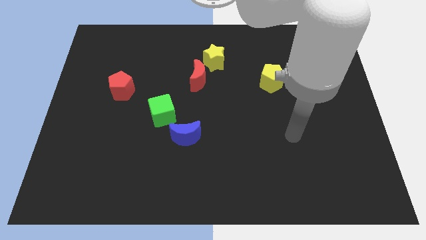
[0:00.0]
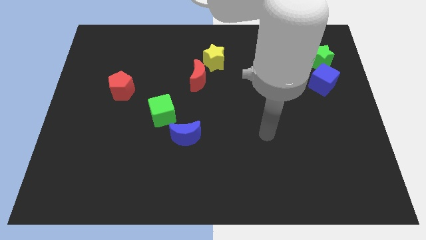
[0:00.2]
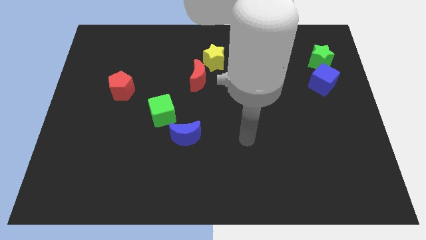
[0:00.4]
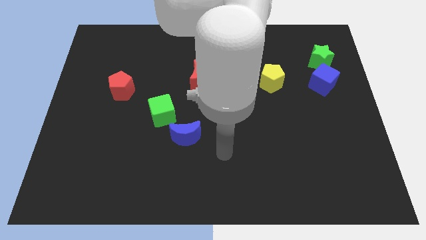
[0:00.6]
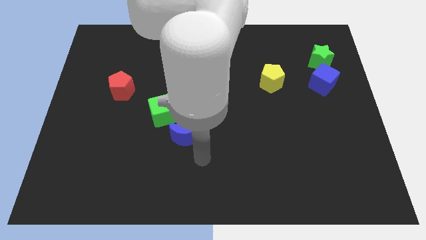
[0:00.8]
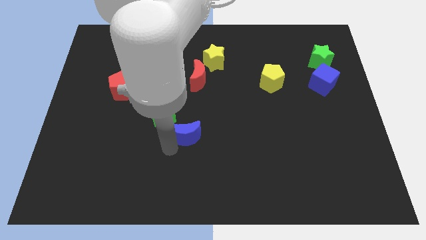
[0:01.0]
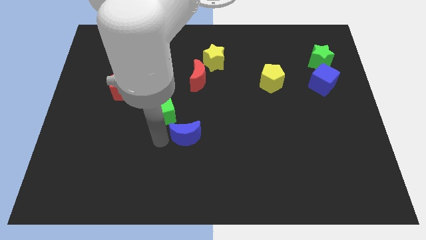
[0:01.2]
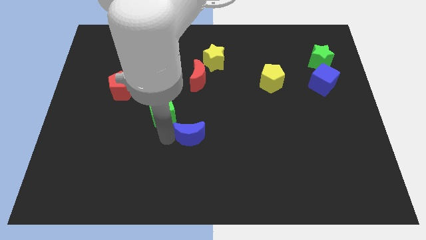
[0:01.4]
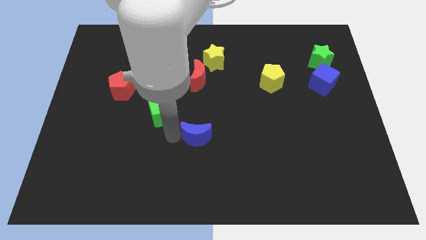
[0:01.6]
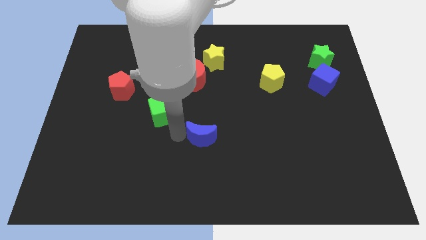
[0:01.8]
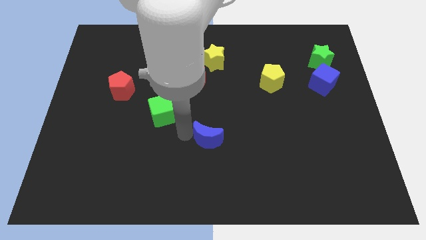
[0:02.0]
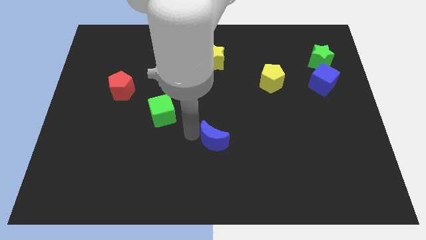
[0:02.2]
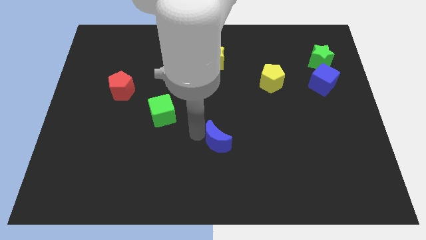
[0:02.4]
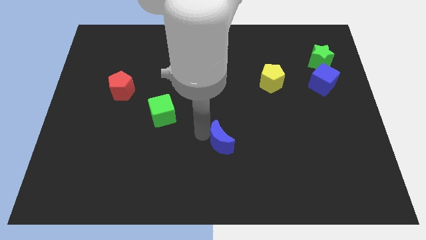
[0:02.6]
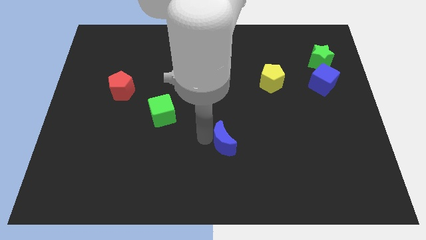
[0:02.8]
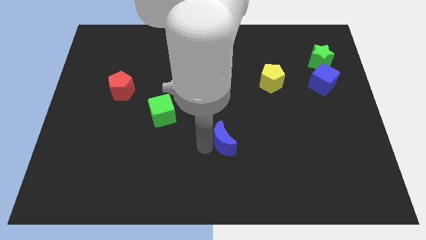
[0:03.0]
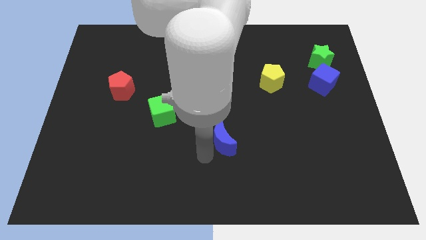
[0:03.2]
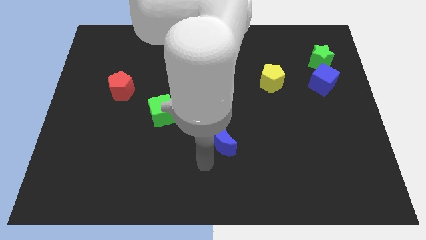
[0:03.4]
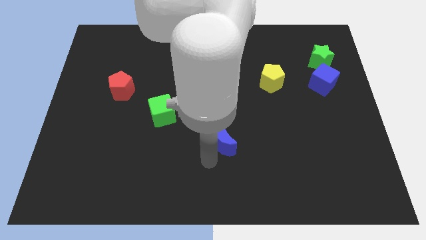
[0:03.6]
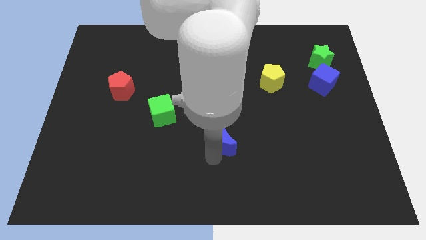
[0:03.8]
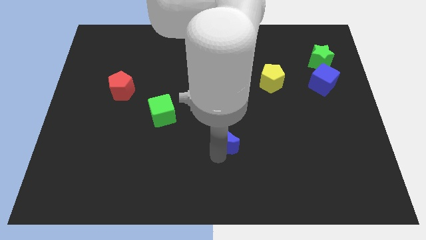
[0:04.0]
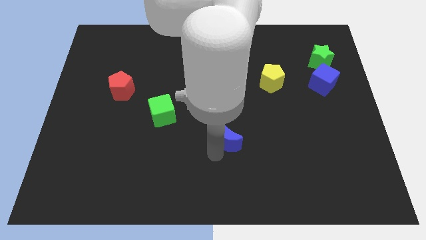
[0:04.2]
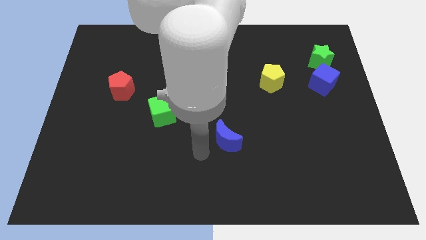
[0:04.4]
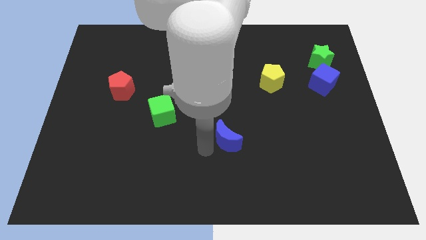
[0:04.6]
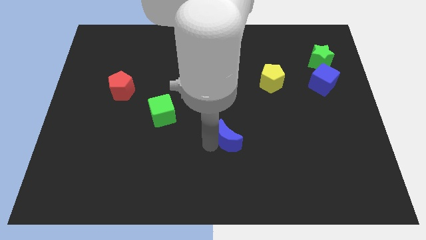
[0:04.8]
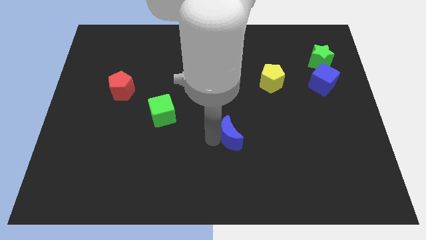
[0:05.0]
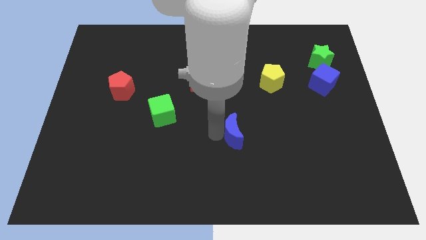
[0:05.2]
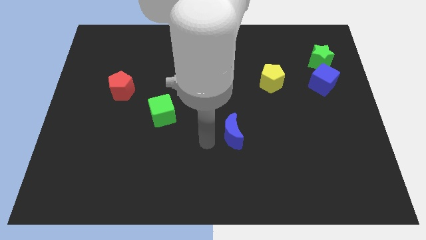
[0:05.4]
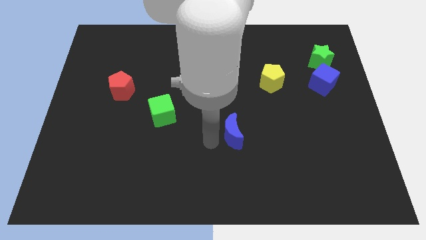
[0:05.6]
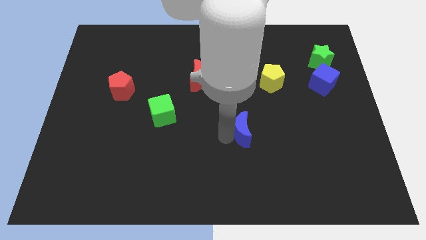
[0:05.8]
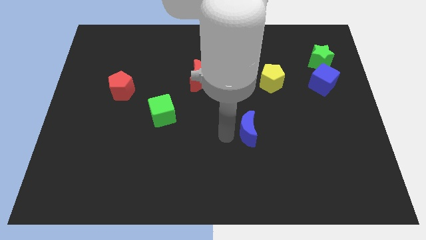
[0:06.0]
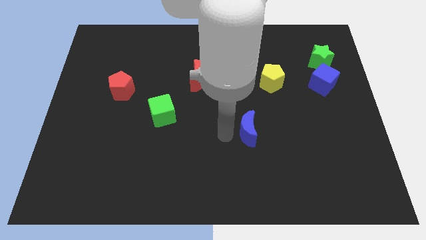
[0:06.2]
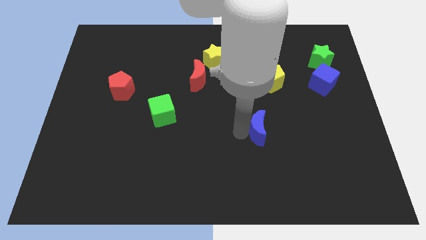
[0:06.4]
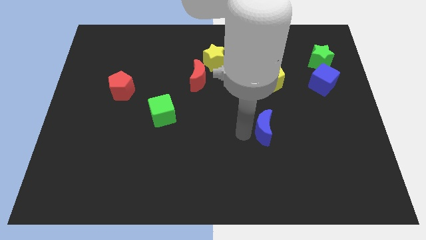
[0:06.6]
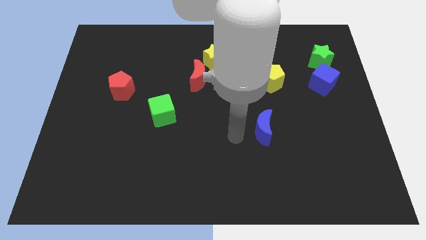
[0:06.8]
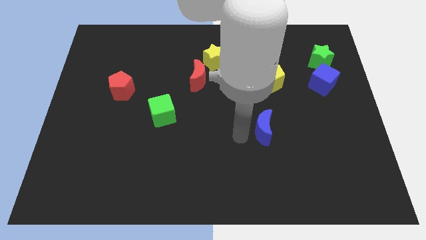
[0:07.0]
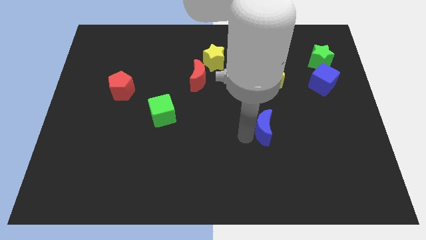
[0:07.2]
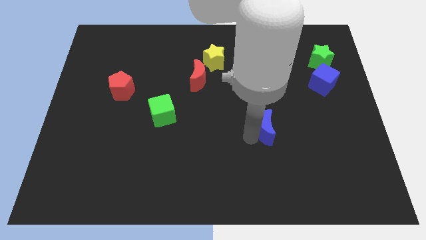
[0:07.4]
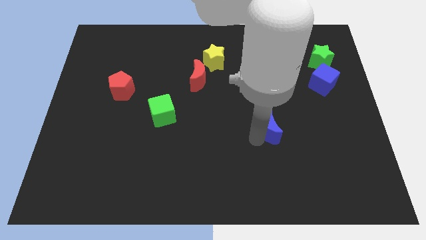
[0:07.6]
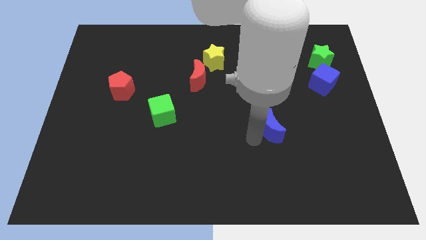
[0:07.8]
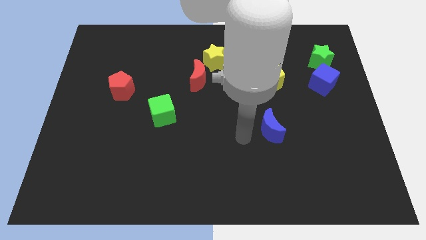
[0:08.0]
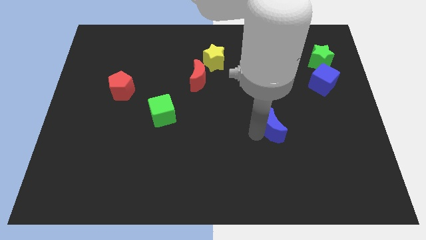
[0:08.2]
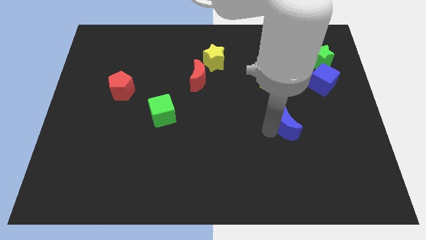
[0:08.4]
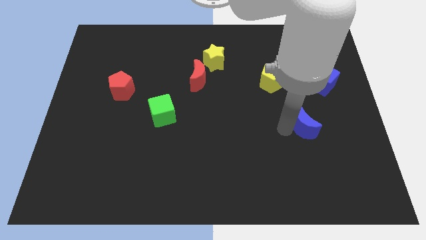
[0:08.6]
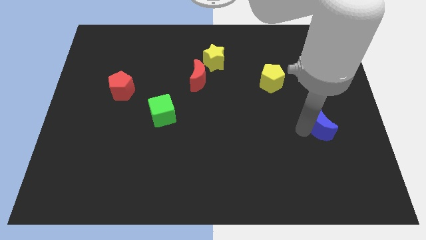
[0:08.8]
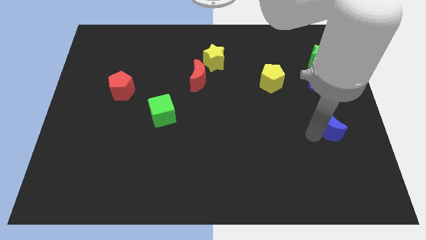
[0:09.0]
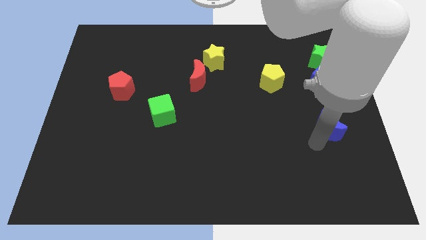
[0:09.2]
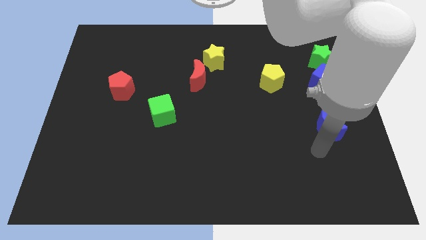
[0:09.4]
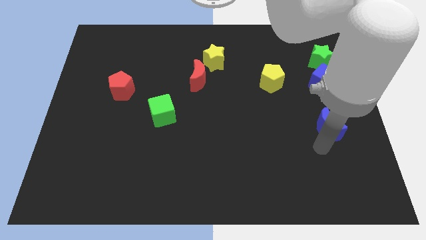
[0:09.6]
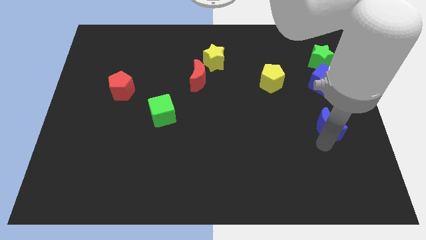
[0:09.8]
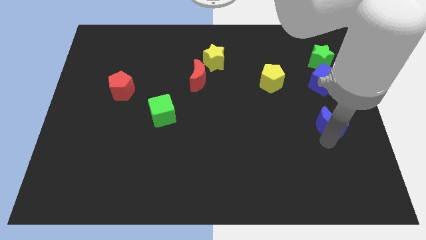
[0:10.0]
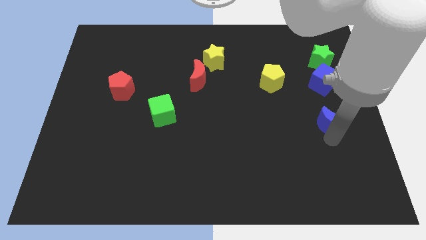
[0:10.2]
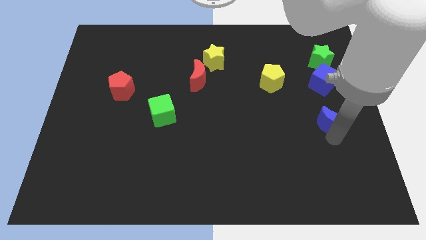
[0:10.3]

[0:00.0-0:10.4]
push the blue moon to the right side of the board

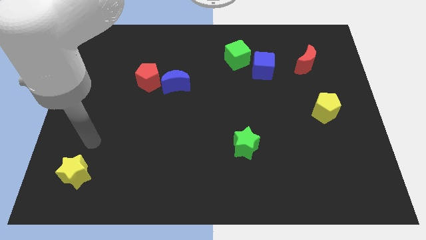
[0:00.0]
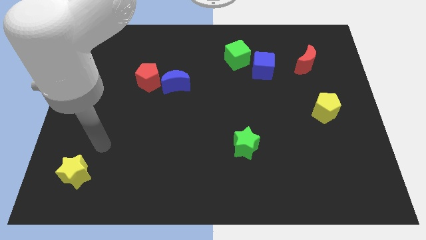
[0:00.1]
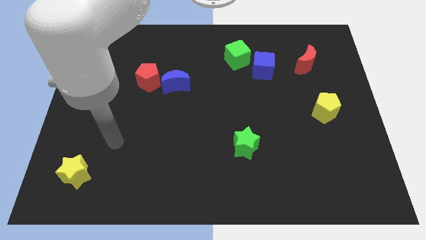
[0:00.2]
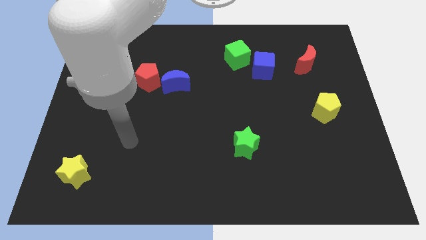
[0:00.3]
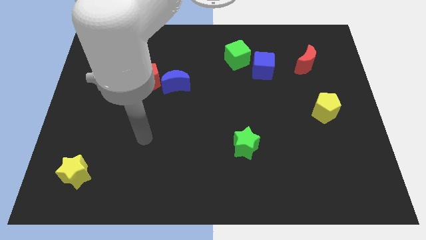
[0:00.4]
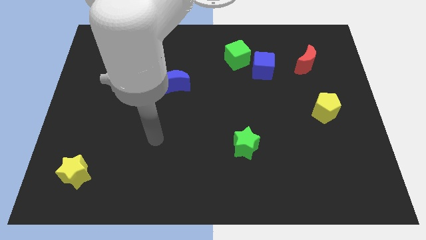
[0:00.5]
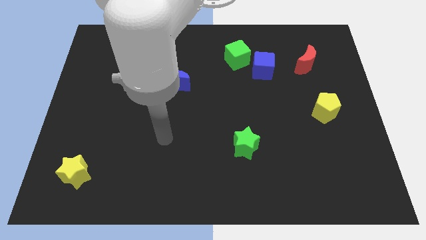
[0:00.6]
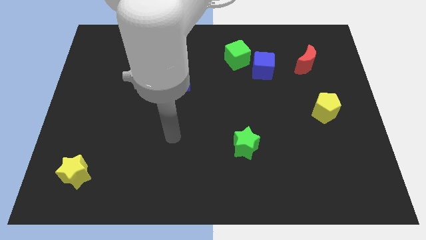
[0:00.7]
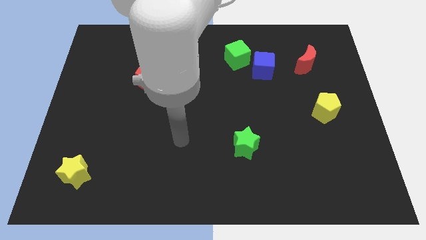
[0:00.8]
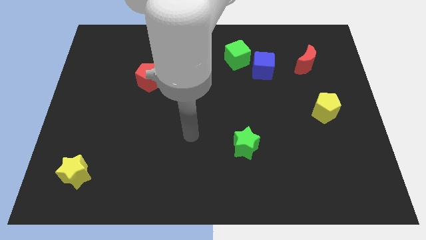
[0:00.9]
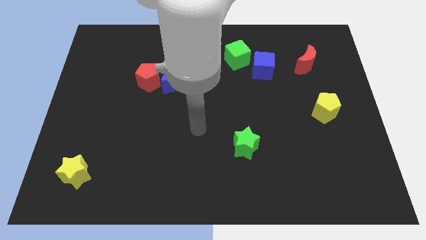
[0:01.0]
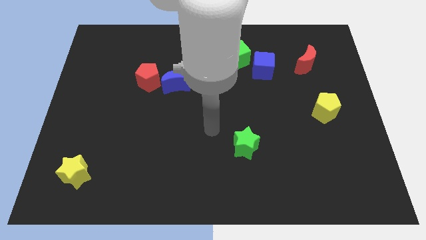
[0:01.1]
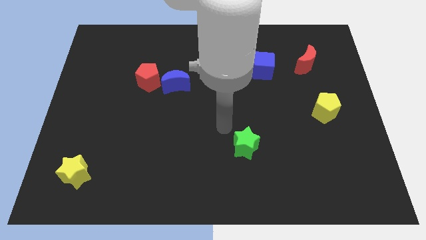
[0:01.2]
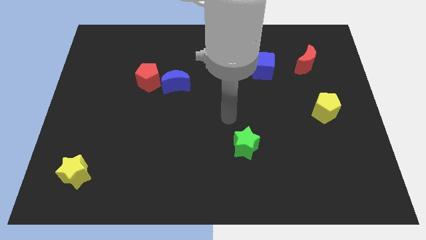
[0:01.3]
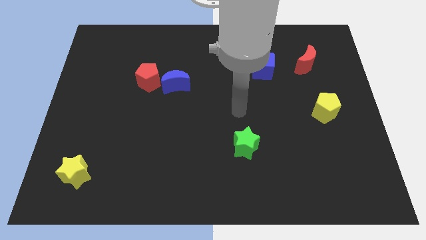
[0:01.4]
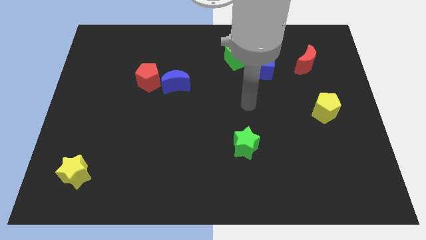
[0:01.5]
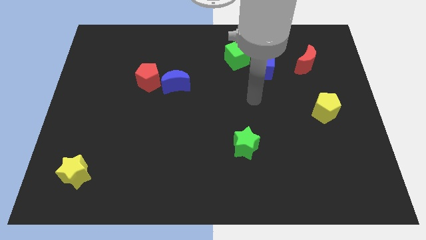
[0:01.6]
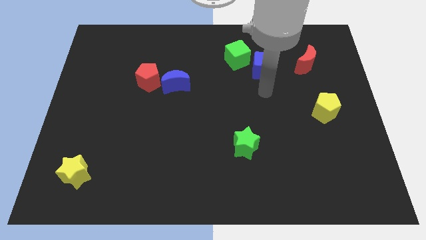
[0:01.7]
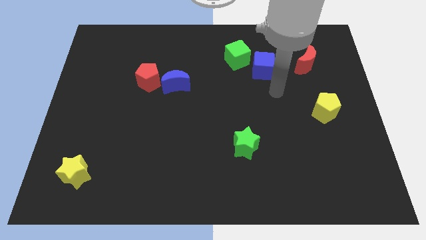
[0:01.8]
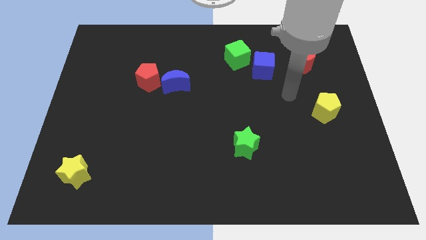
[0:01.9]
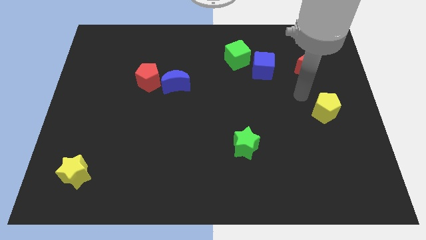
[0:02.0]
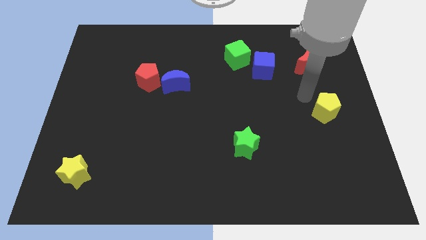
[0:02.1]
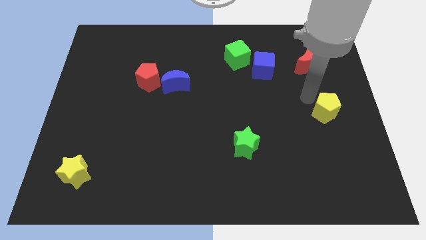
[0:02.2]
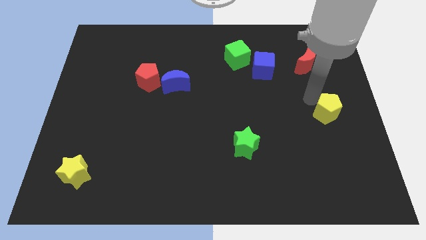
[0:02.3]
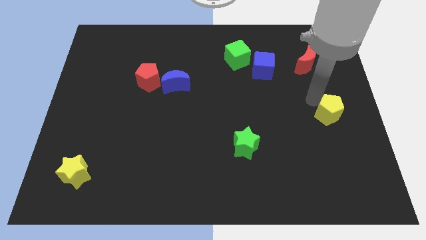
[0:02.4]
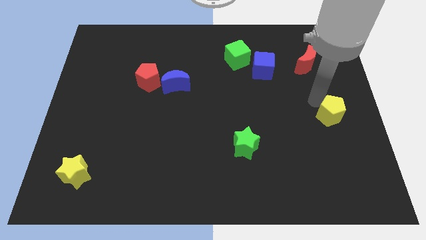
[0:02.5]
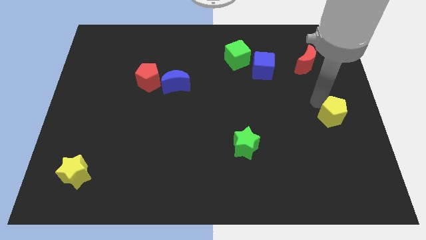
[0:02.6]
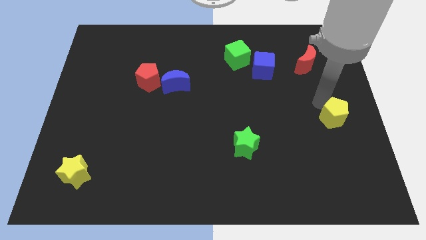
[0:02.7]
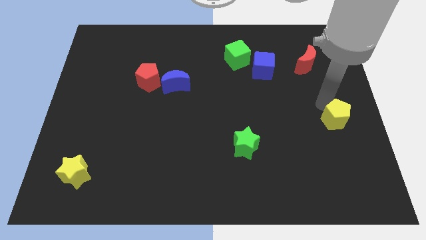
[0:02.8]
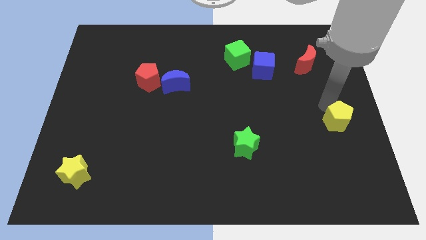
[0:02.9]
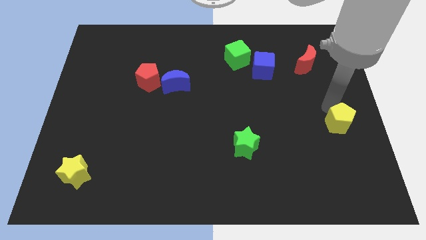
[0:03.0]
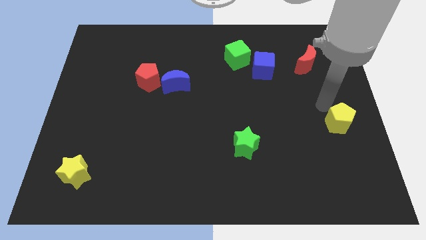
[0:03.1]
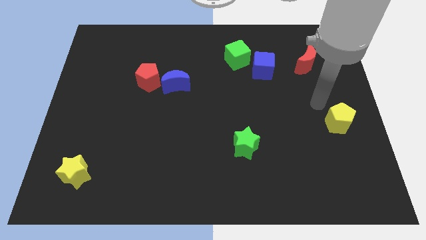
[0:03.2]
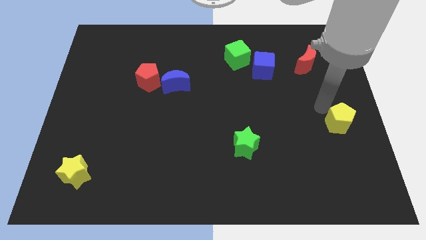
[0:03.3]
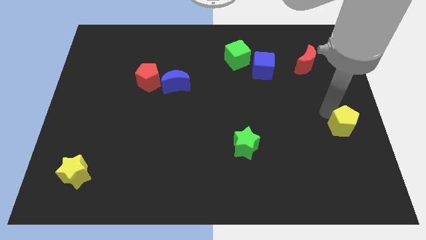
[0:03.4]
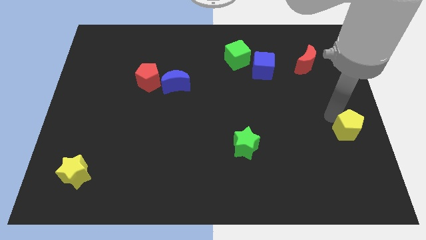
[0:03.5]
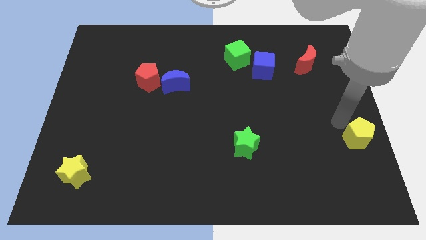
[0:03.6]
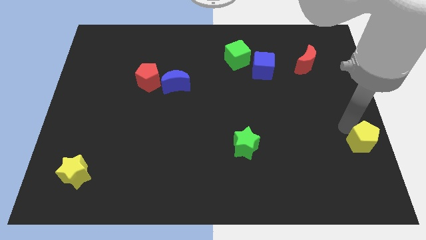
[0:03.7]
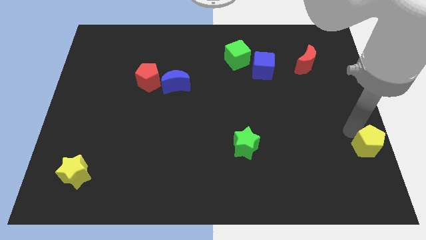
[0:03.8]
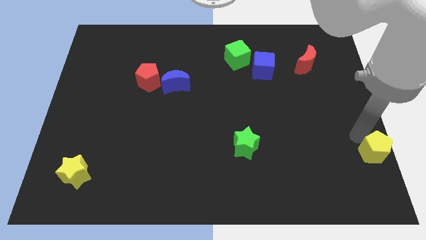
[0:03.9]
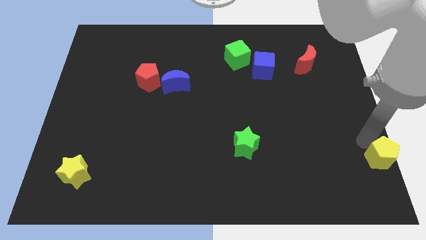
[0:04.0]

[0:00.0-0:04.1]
put the yellow pentagon to the bottom right
